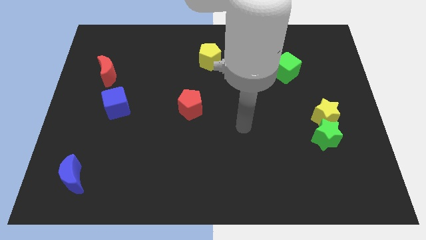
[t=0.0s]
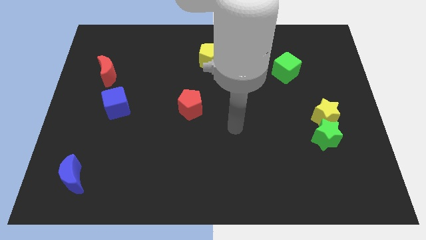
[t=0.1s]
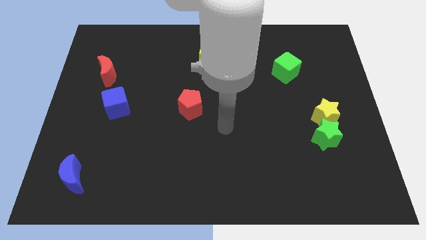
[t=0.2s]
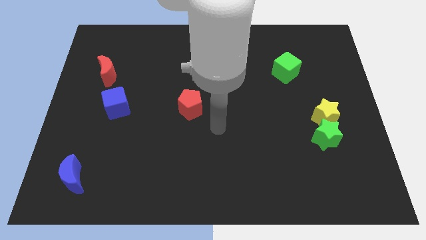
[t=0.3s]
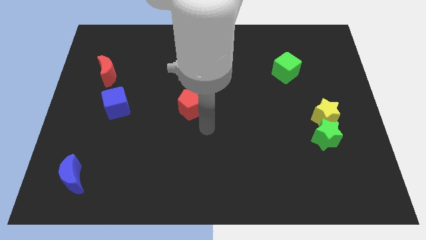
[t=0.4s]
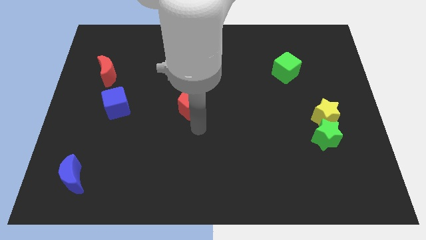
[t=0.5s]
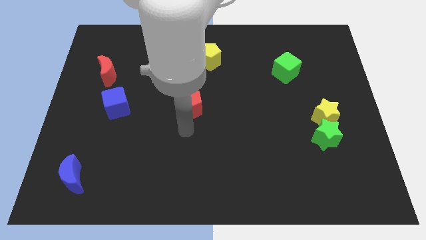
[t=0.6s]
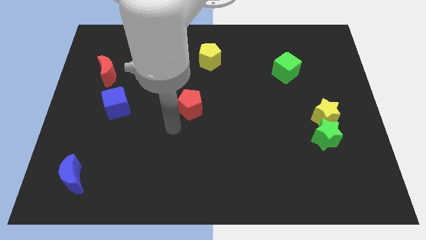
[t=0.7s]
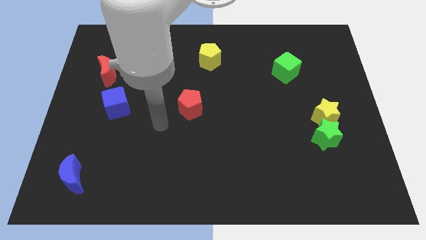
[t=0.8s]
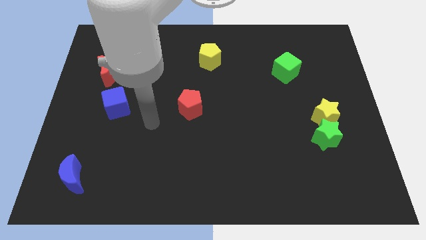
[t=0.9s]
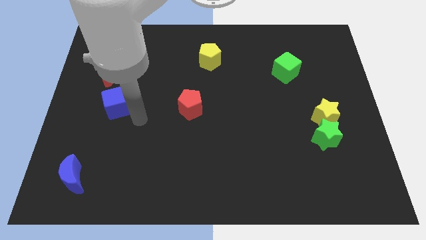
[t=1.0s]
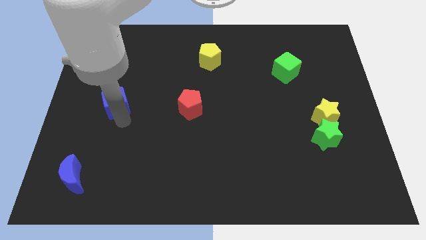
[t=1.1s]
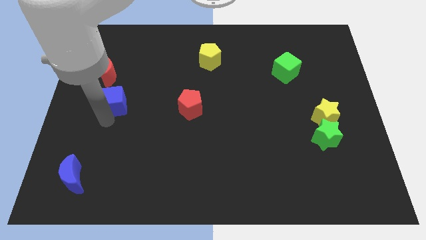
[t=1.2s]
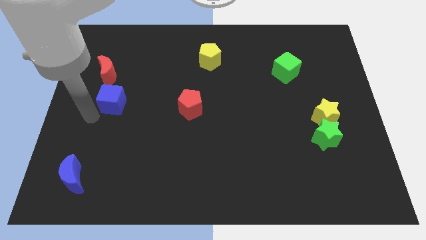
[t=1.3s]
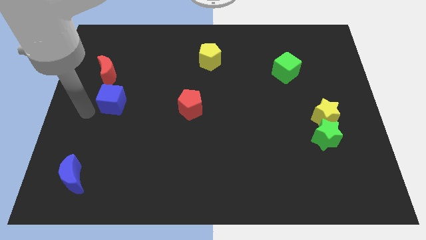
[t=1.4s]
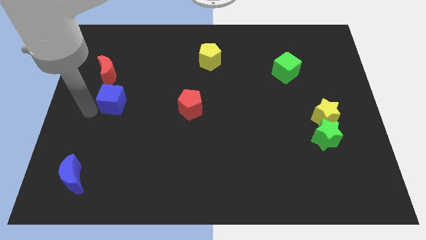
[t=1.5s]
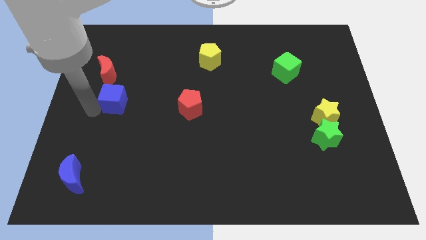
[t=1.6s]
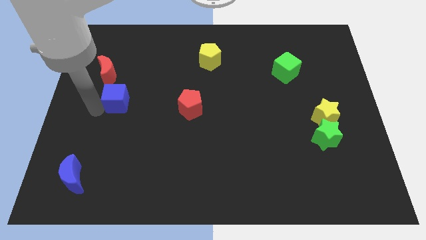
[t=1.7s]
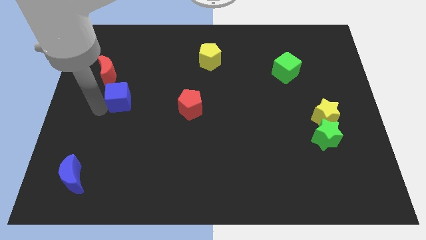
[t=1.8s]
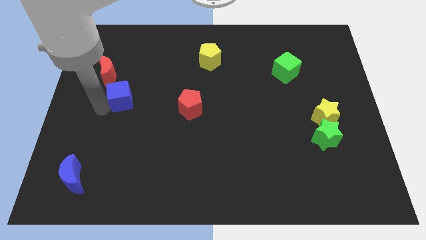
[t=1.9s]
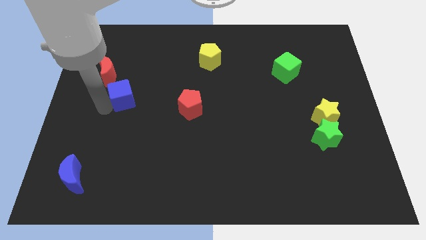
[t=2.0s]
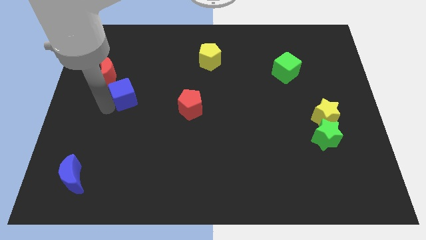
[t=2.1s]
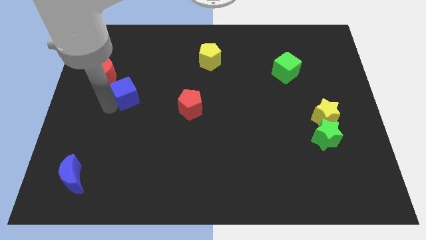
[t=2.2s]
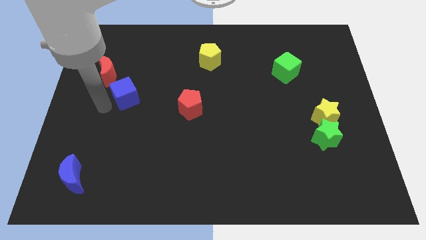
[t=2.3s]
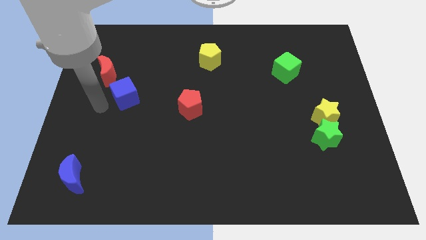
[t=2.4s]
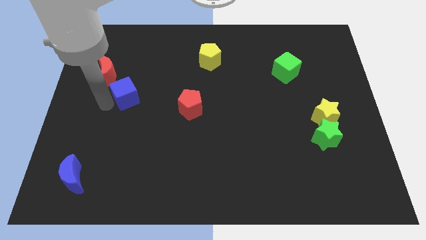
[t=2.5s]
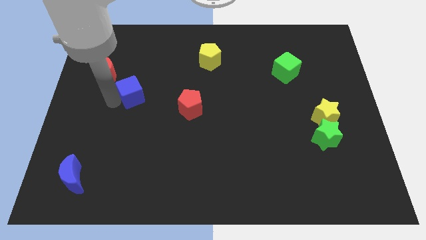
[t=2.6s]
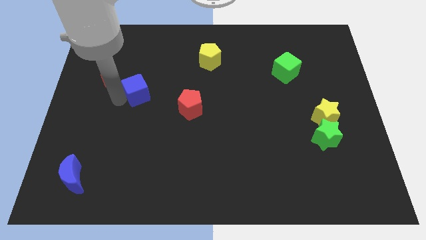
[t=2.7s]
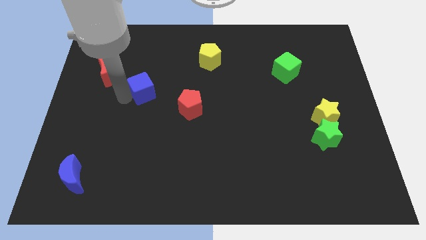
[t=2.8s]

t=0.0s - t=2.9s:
slightly move the blue cube diagonally upwards and to the right

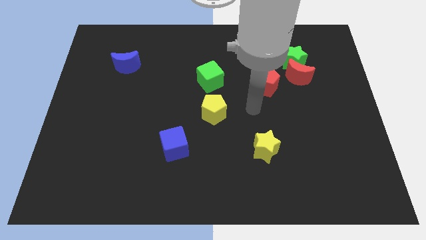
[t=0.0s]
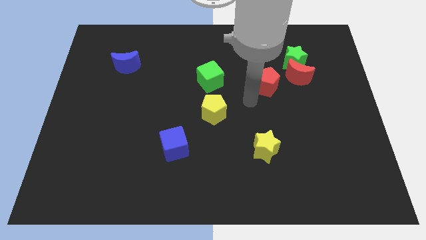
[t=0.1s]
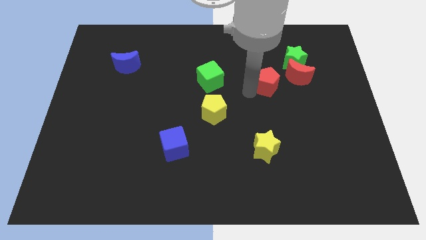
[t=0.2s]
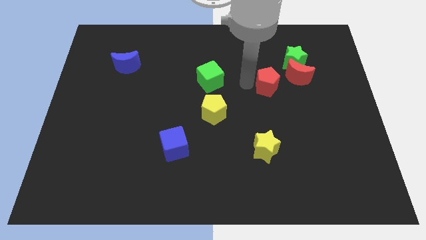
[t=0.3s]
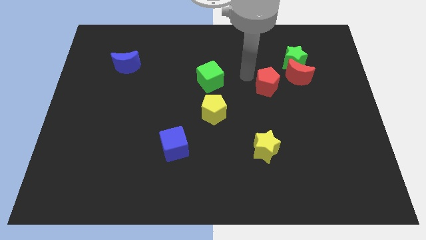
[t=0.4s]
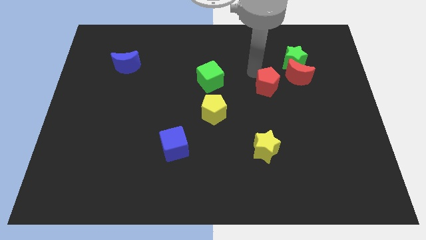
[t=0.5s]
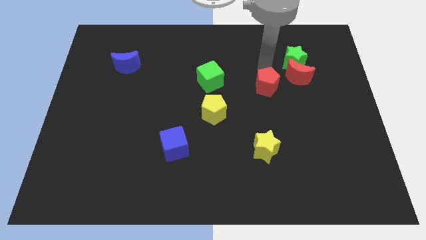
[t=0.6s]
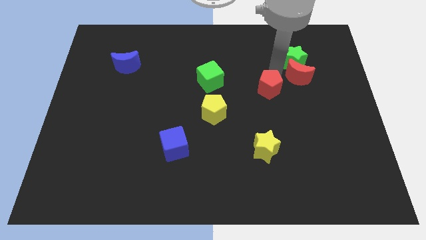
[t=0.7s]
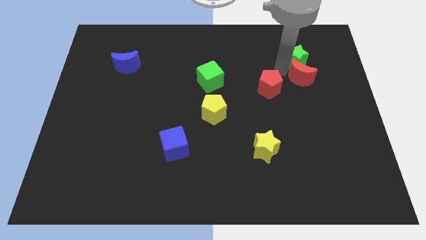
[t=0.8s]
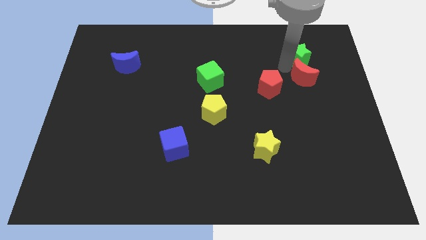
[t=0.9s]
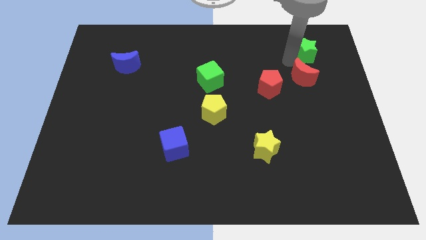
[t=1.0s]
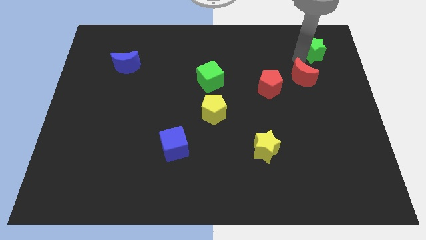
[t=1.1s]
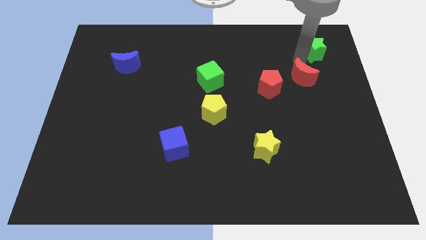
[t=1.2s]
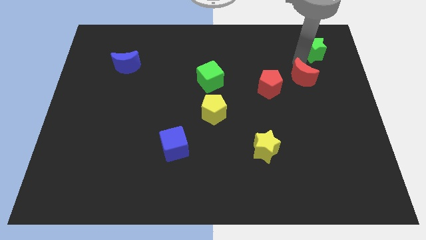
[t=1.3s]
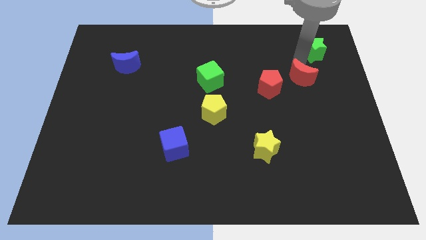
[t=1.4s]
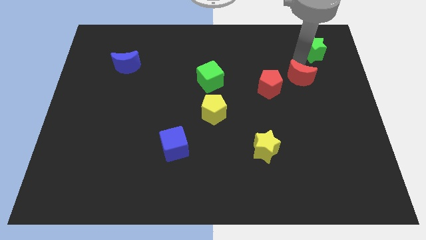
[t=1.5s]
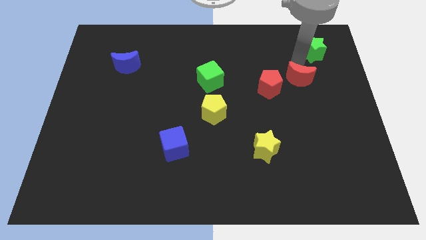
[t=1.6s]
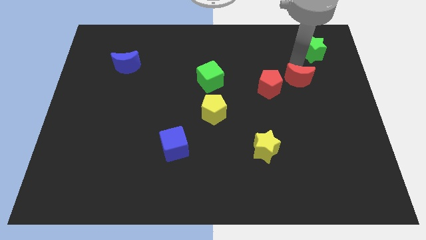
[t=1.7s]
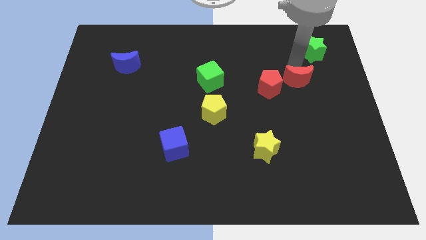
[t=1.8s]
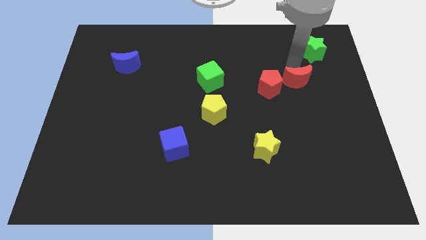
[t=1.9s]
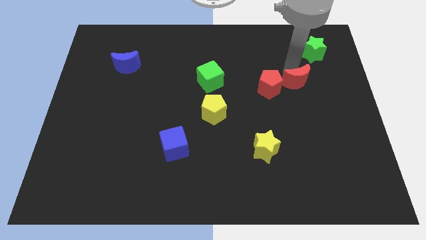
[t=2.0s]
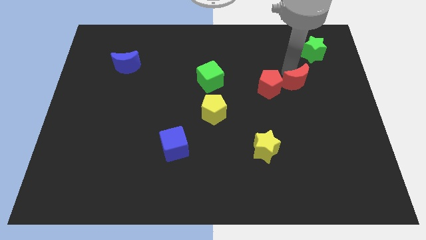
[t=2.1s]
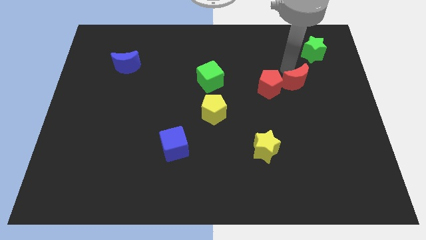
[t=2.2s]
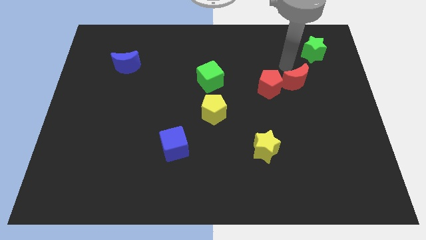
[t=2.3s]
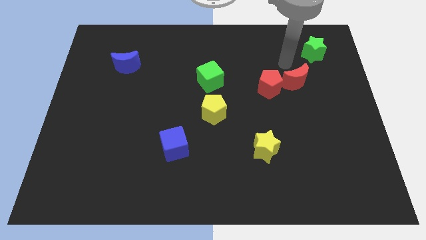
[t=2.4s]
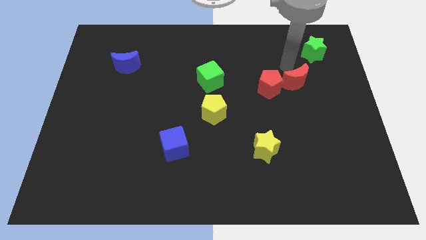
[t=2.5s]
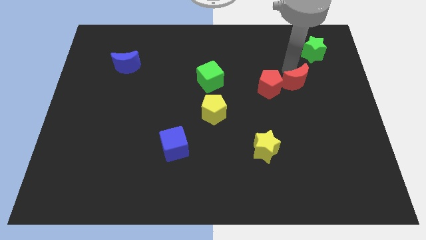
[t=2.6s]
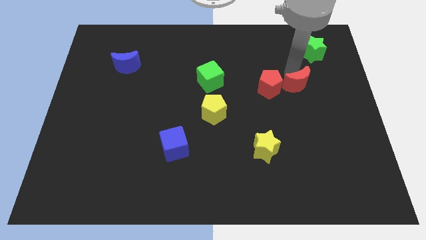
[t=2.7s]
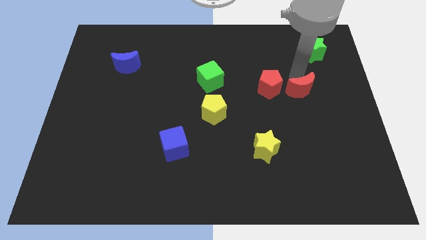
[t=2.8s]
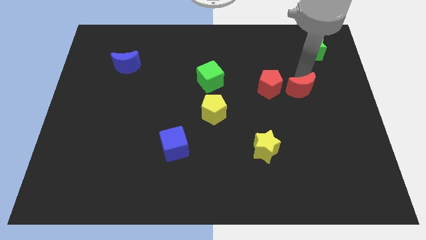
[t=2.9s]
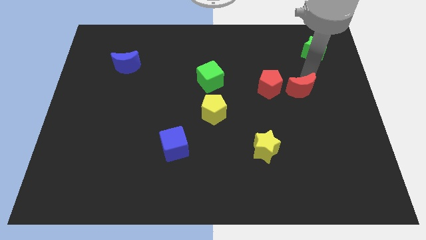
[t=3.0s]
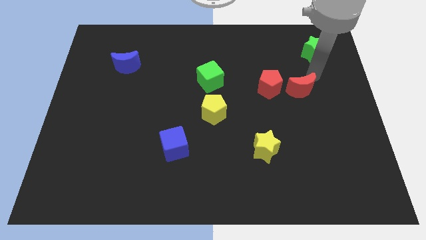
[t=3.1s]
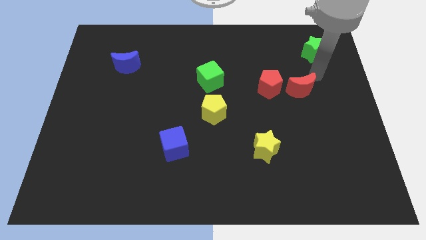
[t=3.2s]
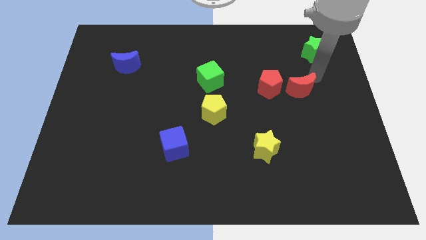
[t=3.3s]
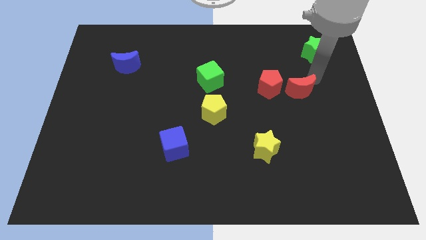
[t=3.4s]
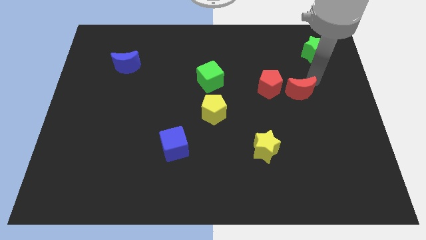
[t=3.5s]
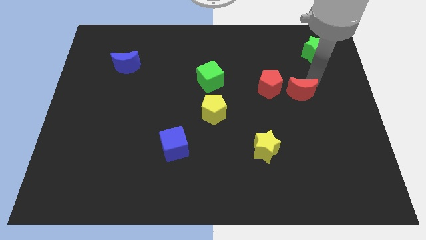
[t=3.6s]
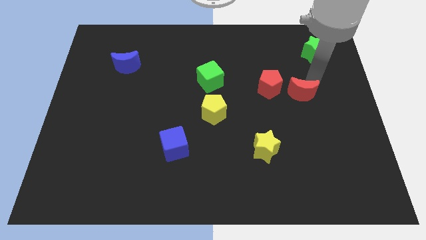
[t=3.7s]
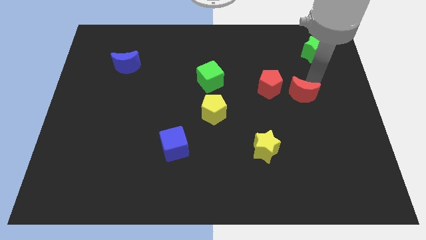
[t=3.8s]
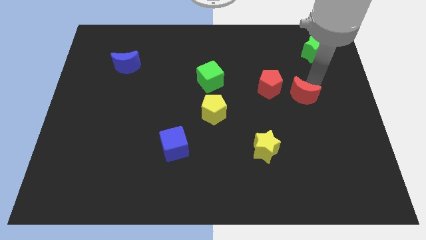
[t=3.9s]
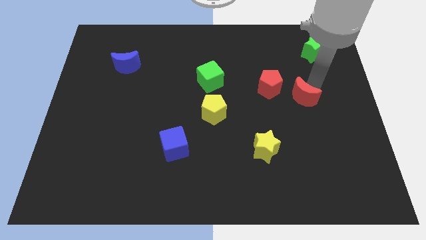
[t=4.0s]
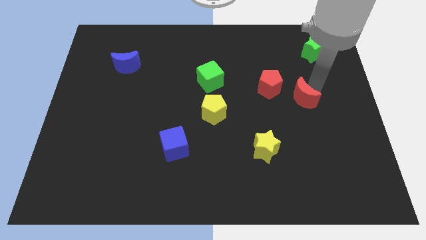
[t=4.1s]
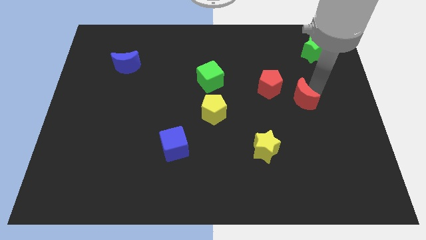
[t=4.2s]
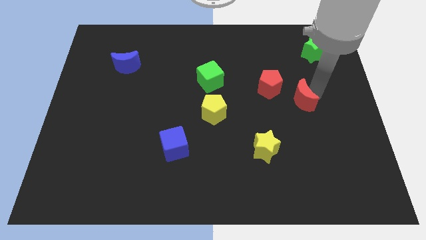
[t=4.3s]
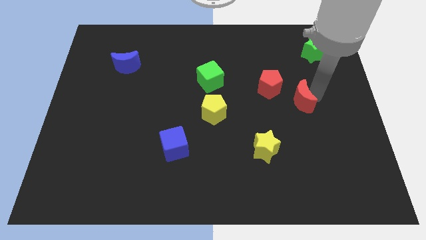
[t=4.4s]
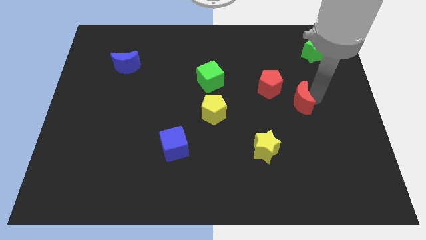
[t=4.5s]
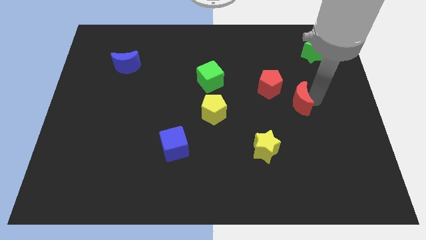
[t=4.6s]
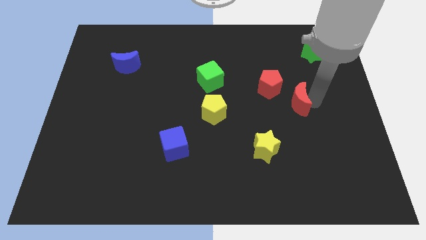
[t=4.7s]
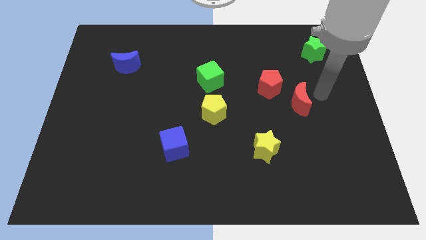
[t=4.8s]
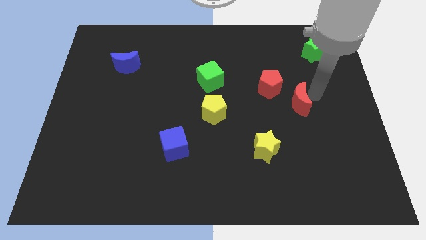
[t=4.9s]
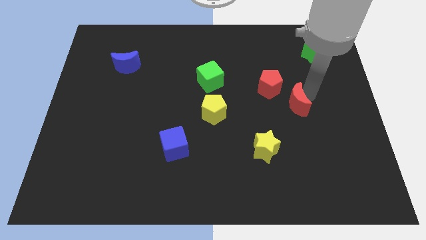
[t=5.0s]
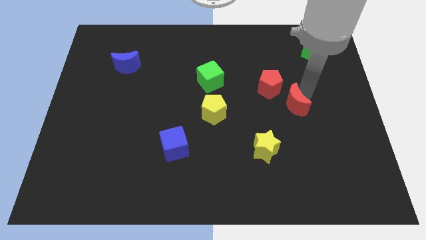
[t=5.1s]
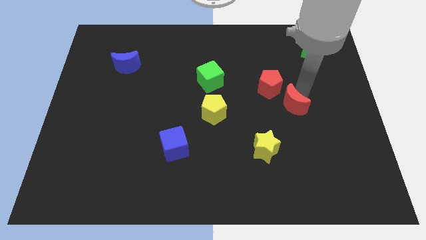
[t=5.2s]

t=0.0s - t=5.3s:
move the red moon a little bit downwards and to the left
